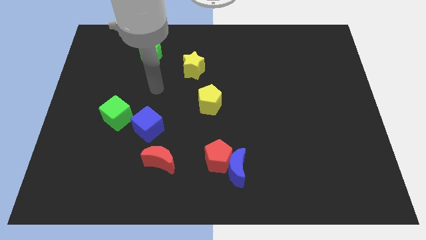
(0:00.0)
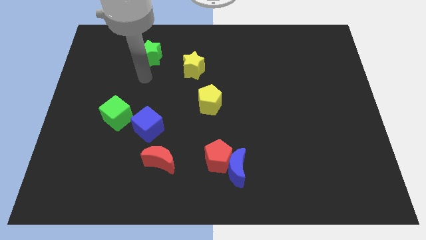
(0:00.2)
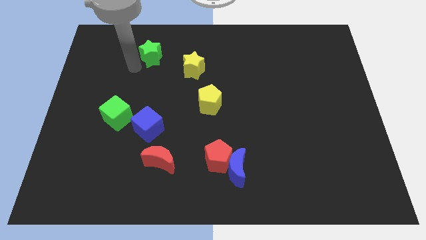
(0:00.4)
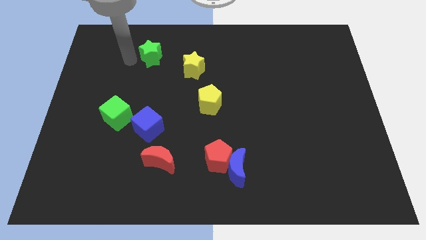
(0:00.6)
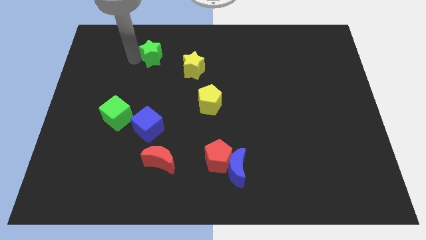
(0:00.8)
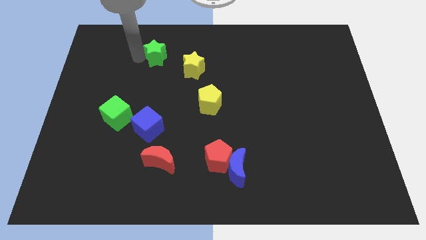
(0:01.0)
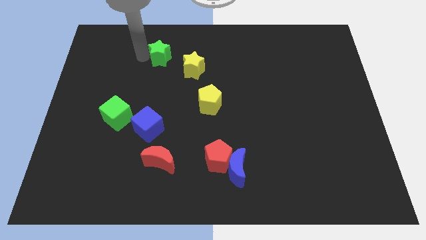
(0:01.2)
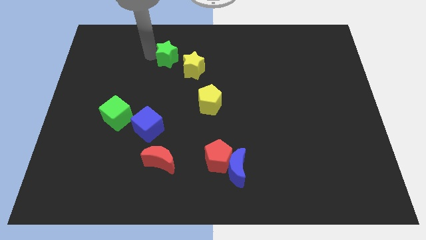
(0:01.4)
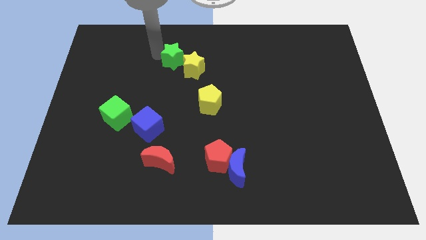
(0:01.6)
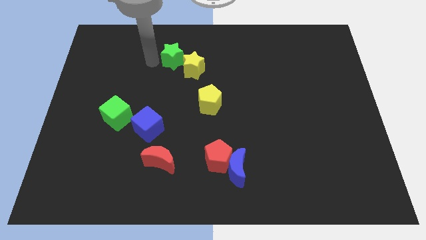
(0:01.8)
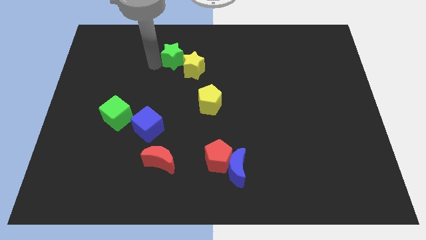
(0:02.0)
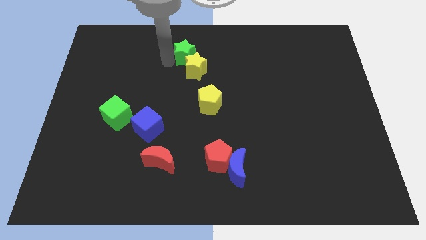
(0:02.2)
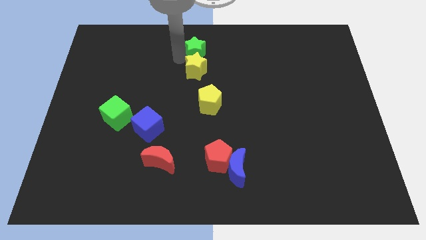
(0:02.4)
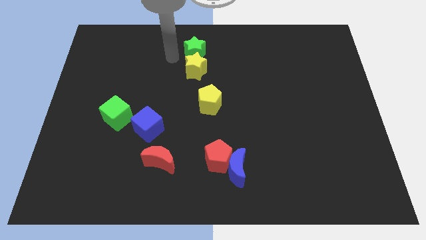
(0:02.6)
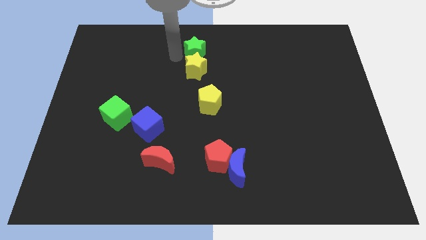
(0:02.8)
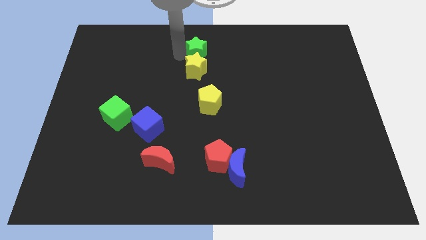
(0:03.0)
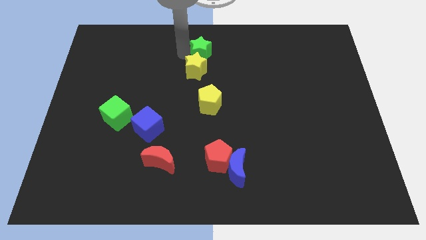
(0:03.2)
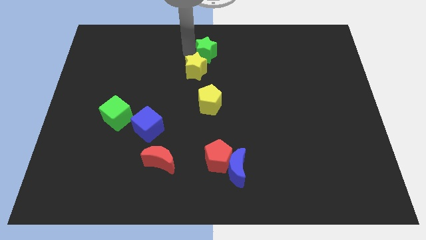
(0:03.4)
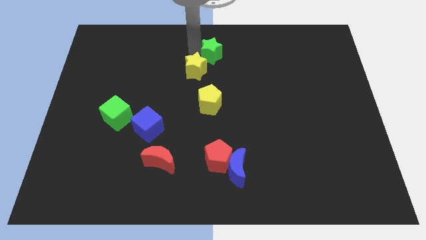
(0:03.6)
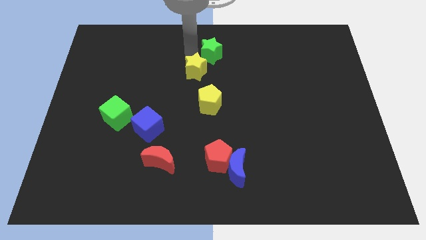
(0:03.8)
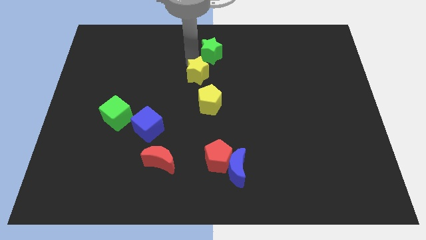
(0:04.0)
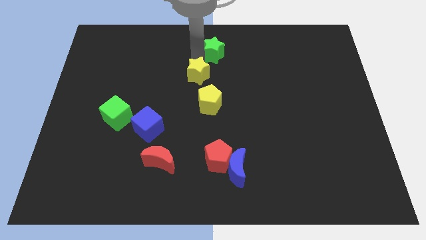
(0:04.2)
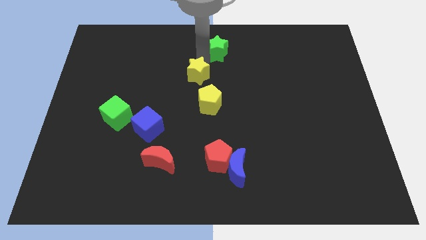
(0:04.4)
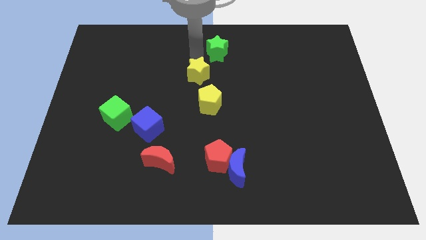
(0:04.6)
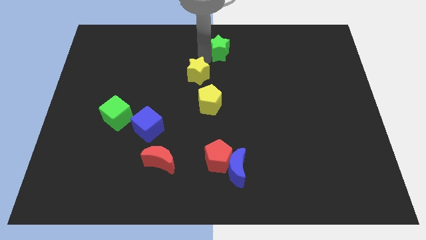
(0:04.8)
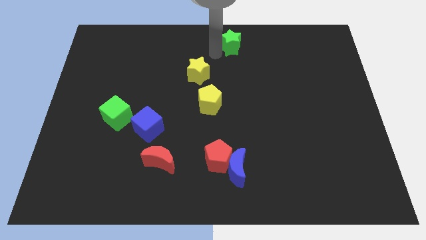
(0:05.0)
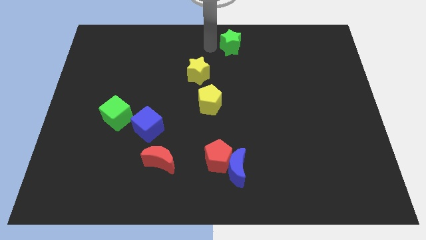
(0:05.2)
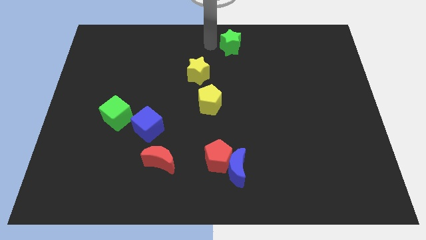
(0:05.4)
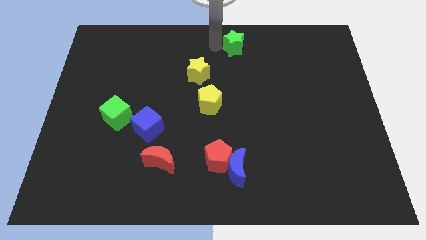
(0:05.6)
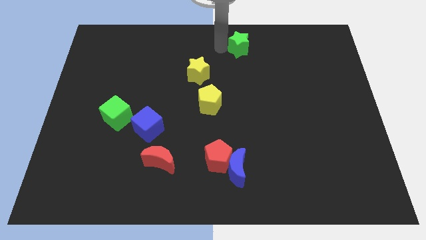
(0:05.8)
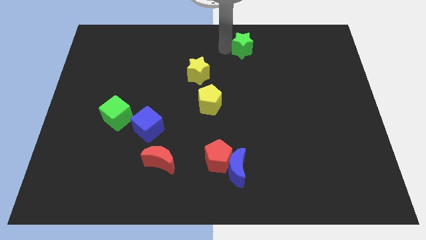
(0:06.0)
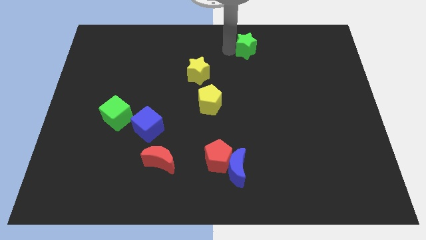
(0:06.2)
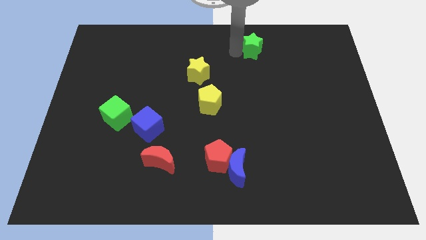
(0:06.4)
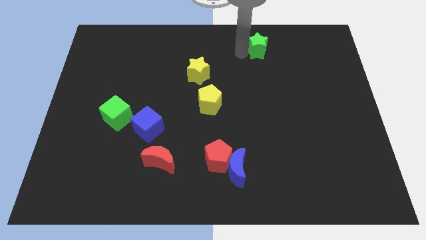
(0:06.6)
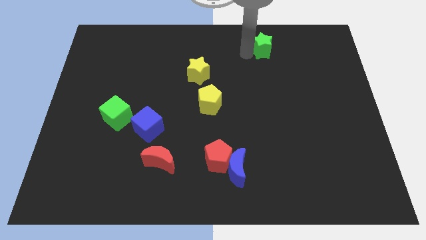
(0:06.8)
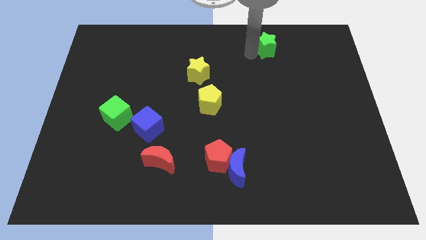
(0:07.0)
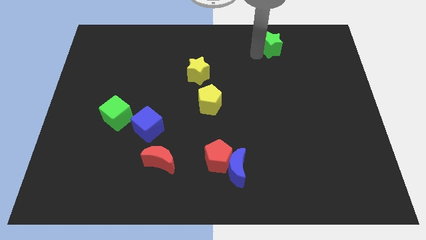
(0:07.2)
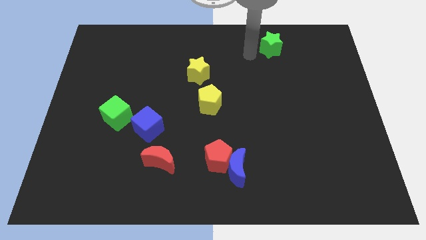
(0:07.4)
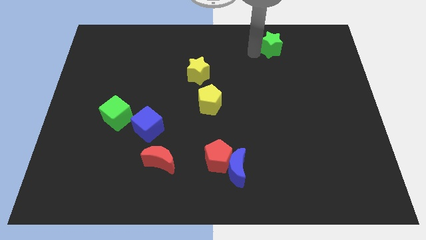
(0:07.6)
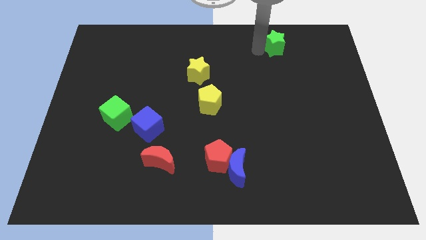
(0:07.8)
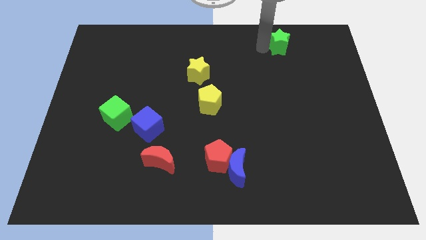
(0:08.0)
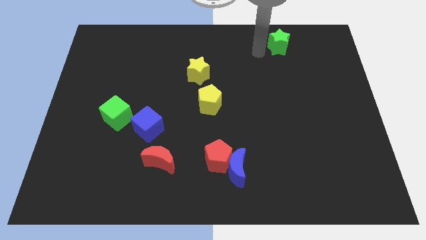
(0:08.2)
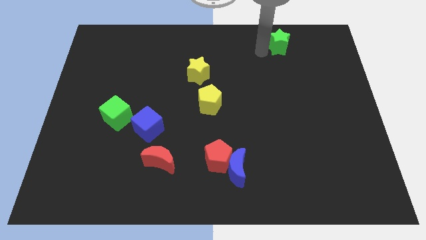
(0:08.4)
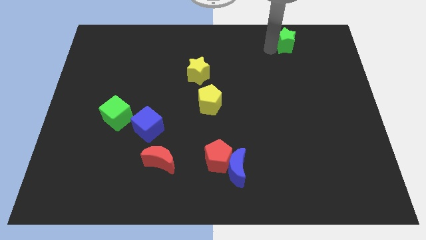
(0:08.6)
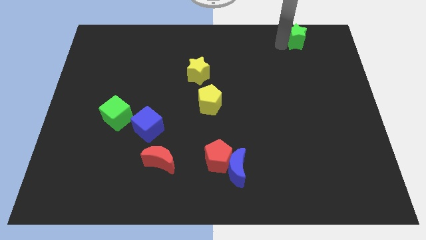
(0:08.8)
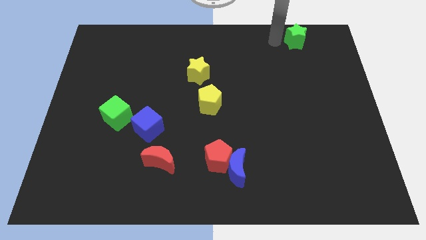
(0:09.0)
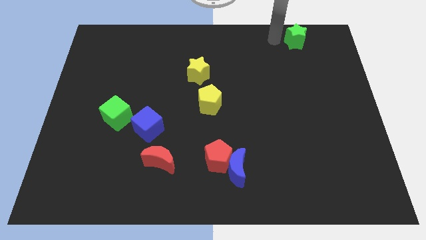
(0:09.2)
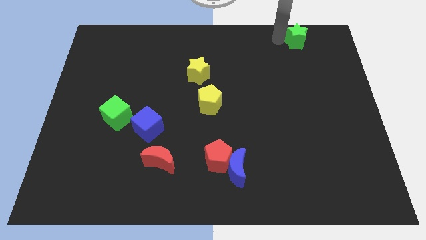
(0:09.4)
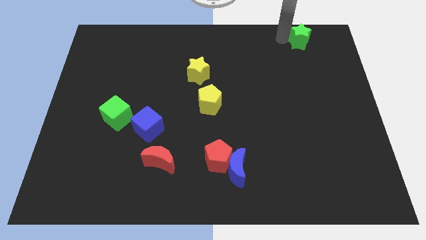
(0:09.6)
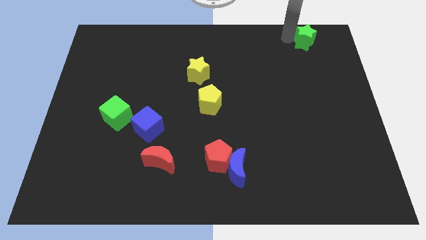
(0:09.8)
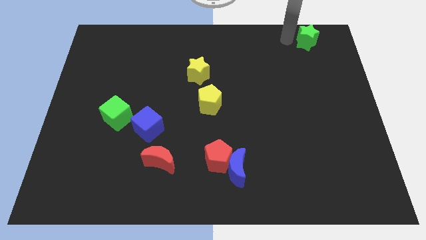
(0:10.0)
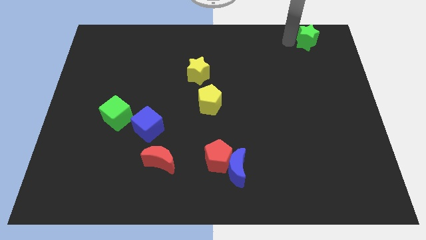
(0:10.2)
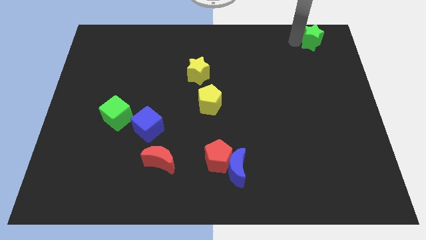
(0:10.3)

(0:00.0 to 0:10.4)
slide the green star to the upper right corner

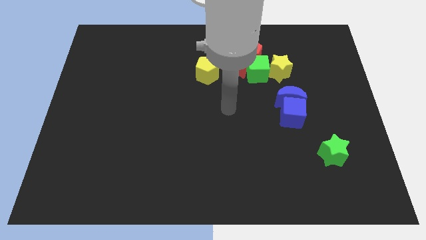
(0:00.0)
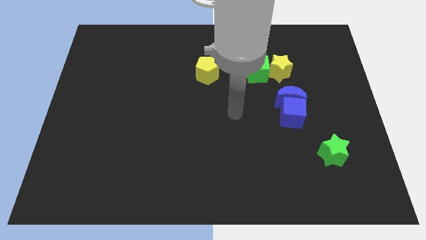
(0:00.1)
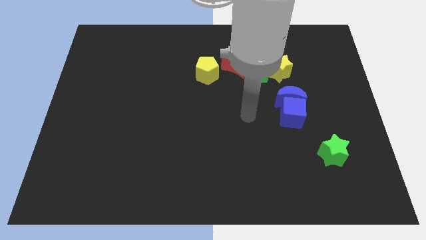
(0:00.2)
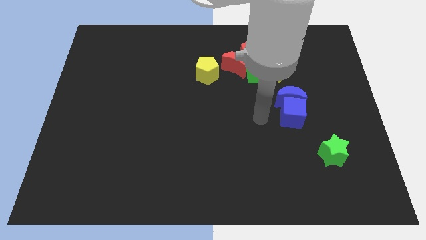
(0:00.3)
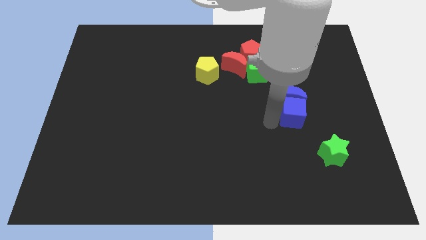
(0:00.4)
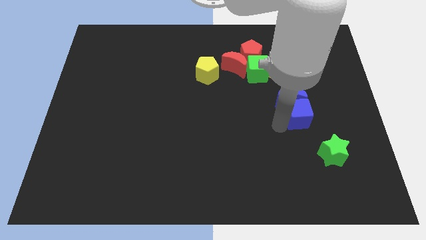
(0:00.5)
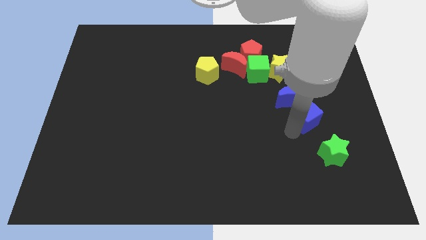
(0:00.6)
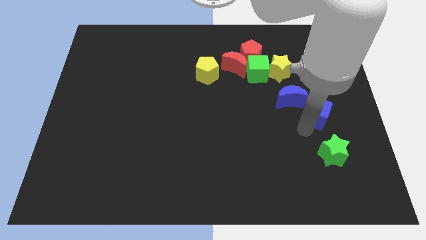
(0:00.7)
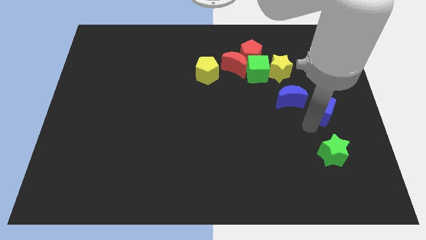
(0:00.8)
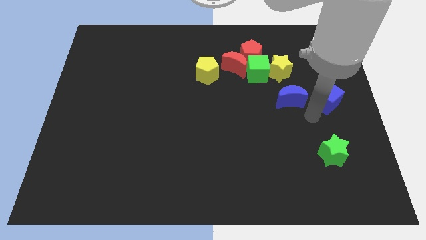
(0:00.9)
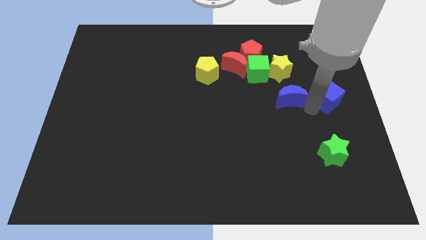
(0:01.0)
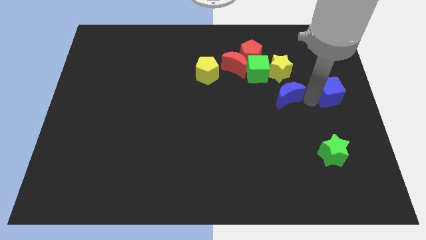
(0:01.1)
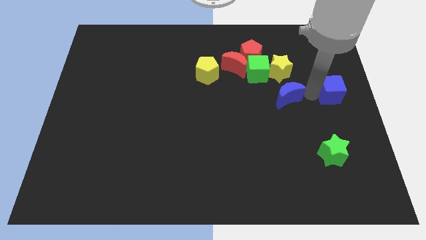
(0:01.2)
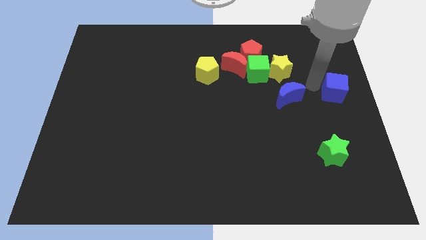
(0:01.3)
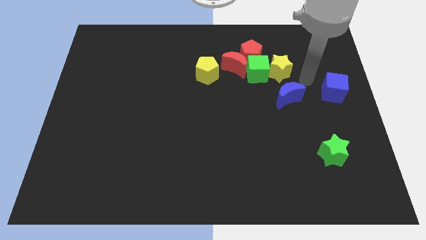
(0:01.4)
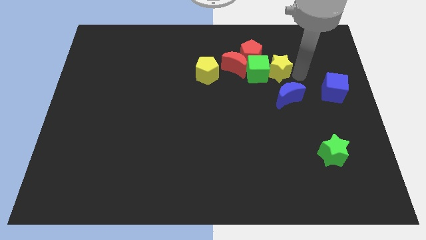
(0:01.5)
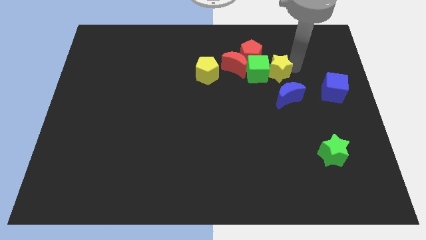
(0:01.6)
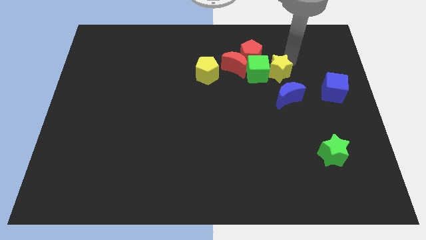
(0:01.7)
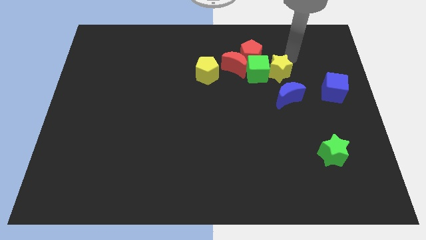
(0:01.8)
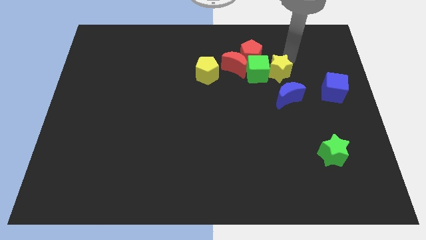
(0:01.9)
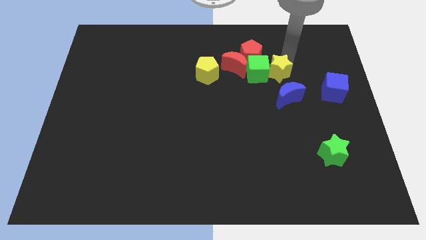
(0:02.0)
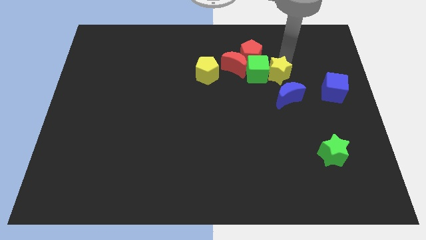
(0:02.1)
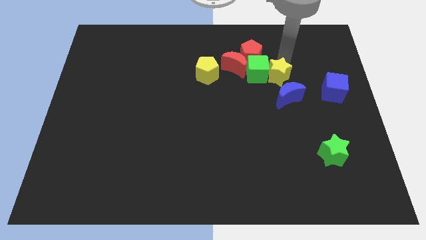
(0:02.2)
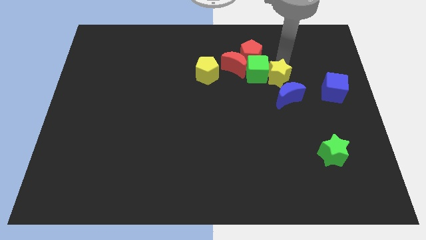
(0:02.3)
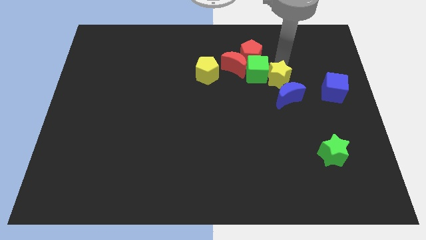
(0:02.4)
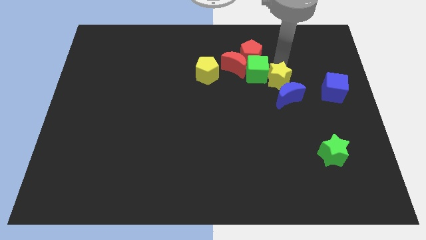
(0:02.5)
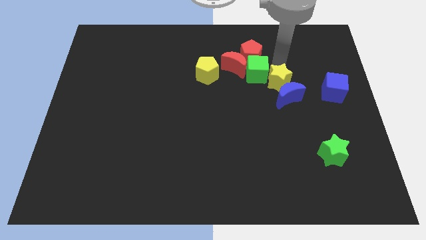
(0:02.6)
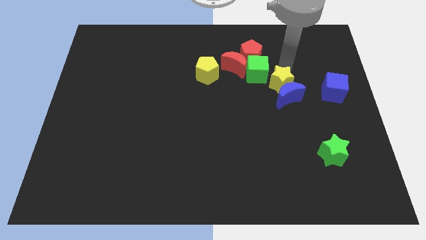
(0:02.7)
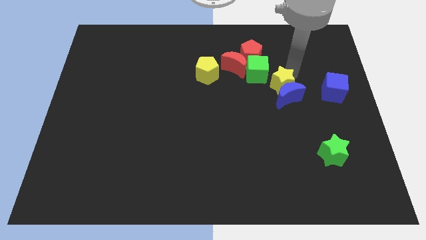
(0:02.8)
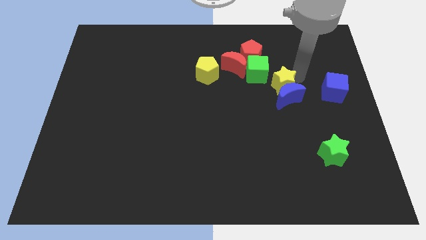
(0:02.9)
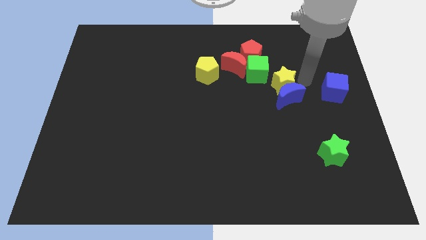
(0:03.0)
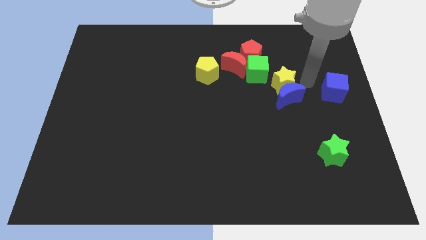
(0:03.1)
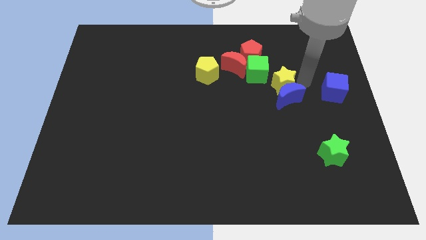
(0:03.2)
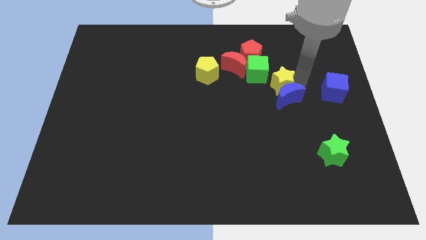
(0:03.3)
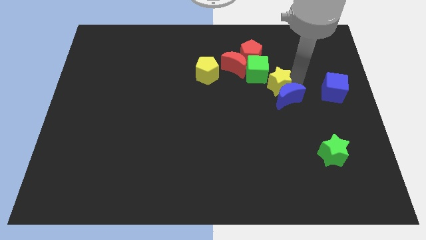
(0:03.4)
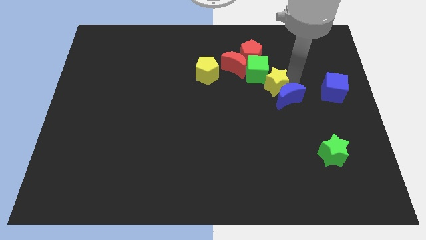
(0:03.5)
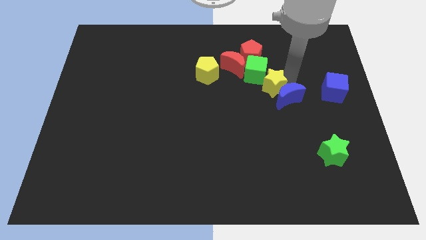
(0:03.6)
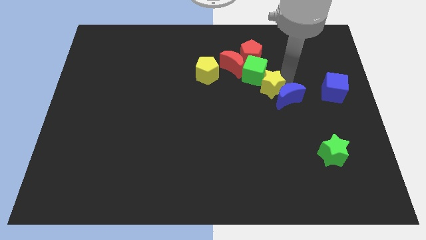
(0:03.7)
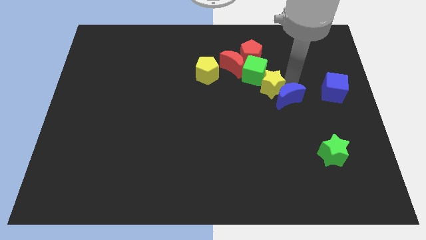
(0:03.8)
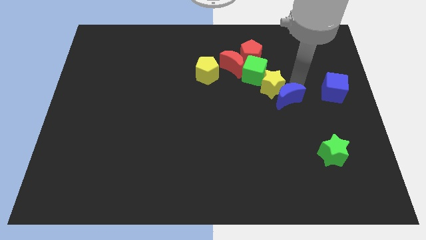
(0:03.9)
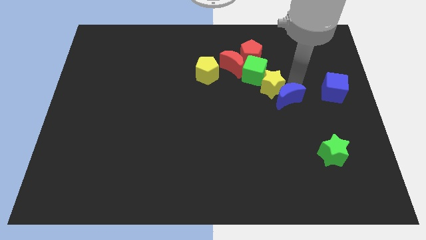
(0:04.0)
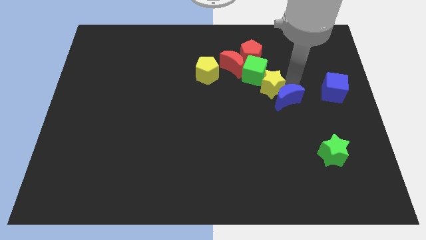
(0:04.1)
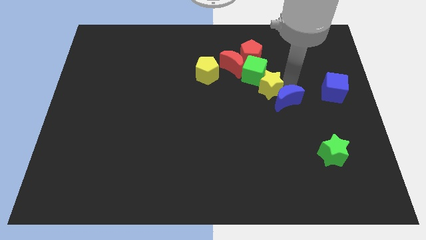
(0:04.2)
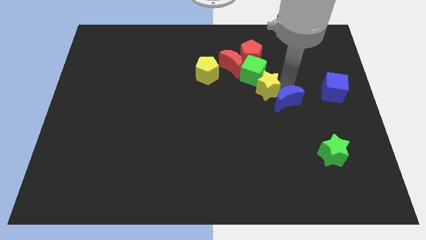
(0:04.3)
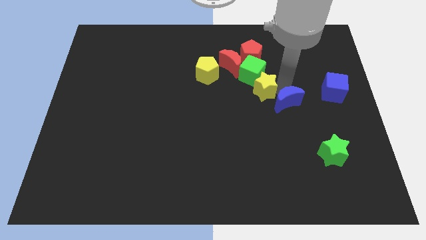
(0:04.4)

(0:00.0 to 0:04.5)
move the yellow star to the center
